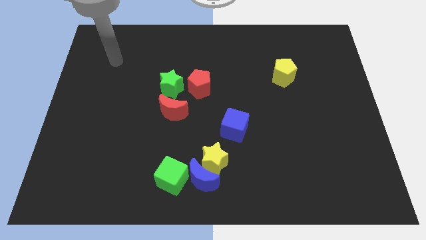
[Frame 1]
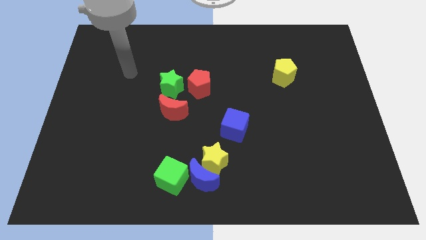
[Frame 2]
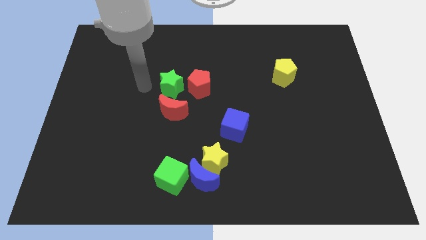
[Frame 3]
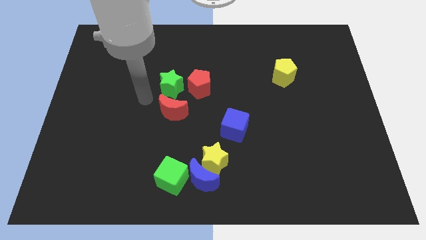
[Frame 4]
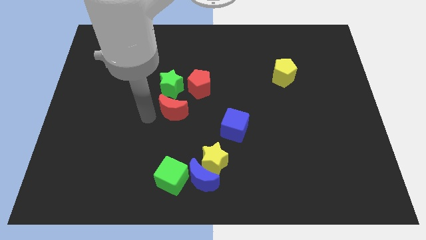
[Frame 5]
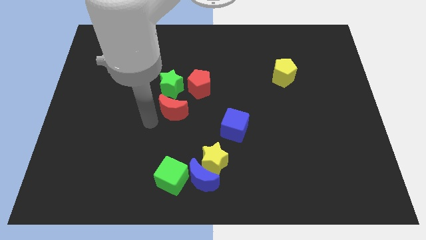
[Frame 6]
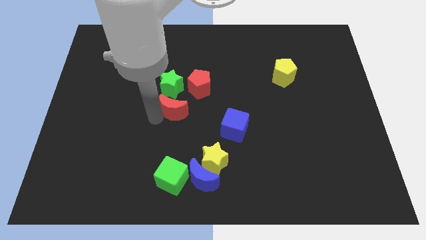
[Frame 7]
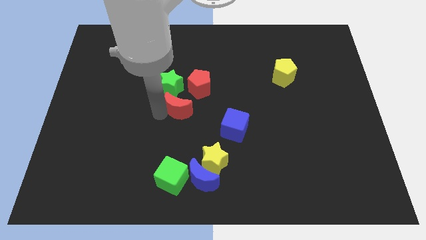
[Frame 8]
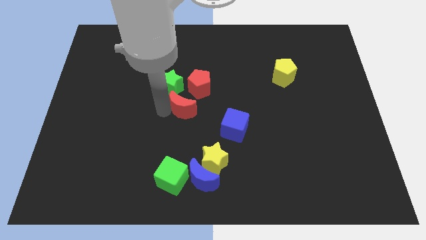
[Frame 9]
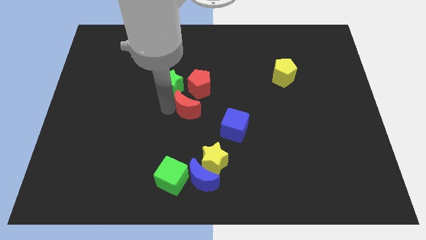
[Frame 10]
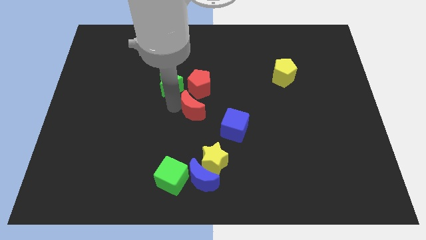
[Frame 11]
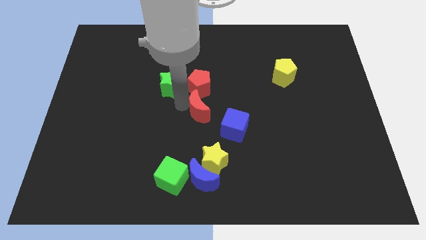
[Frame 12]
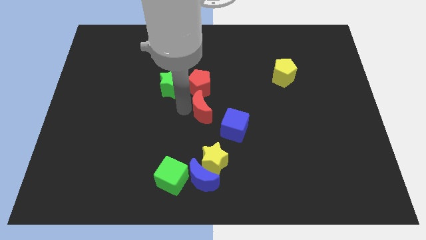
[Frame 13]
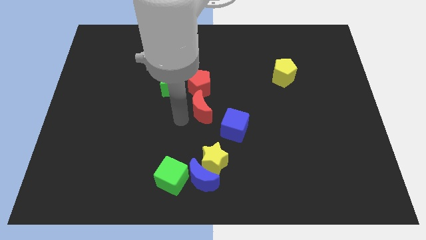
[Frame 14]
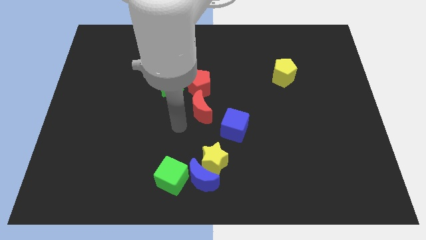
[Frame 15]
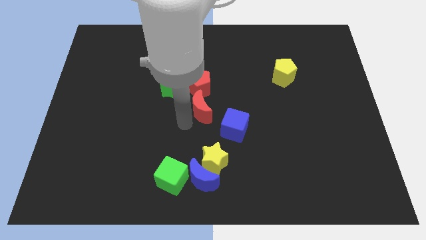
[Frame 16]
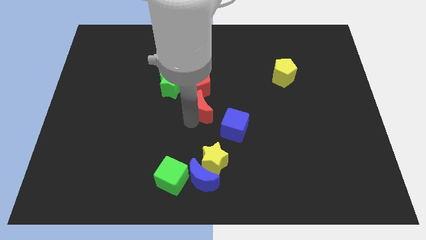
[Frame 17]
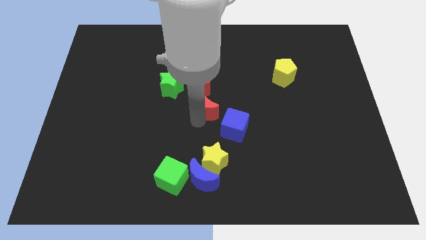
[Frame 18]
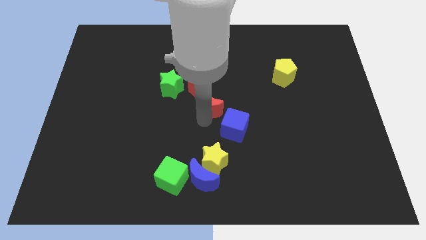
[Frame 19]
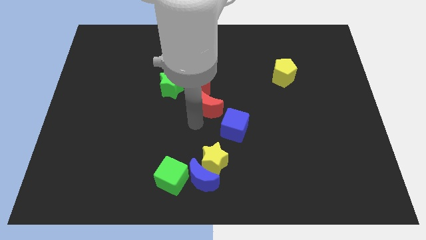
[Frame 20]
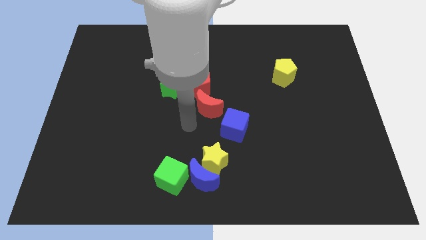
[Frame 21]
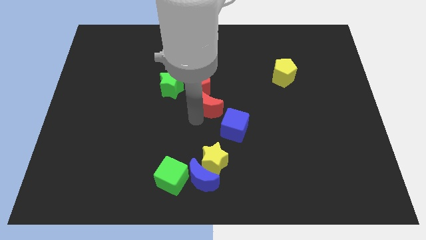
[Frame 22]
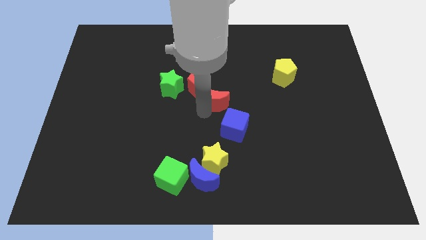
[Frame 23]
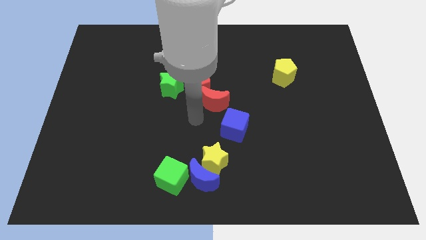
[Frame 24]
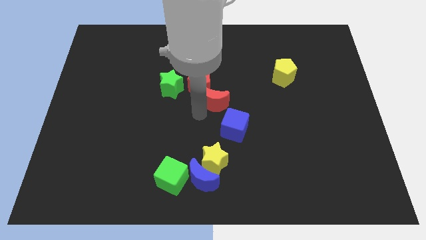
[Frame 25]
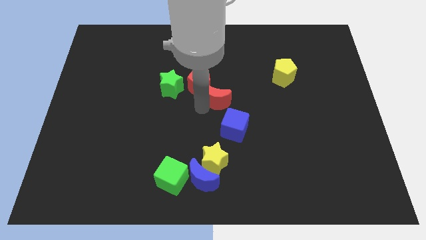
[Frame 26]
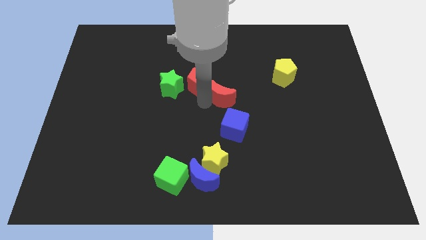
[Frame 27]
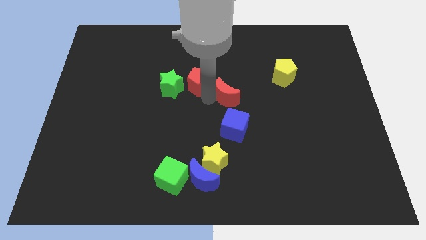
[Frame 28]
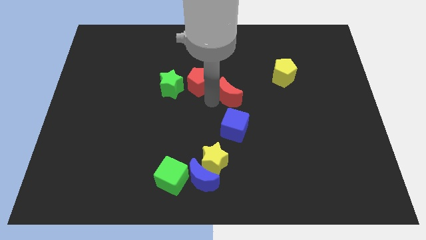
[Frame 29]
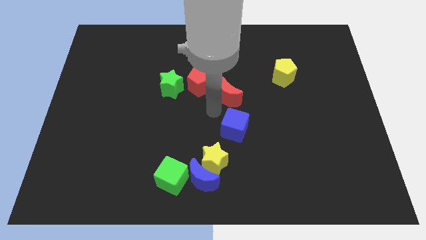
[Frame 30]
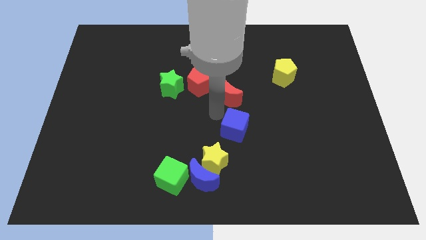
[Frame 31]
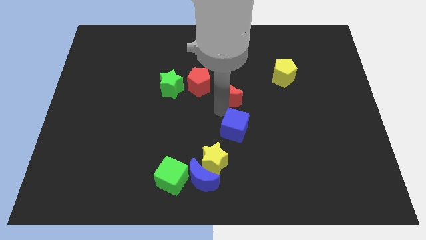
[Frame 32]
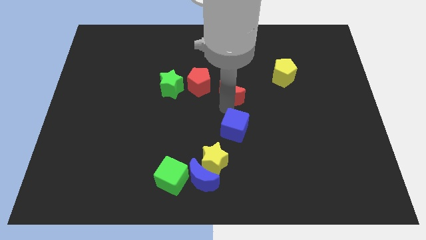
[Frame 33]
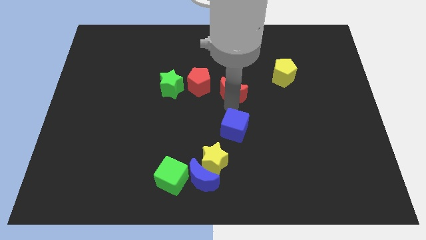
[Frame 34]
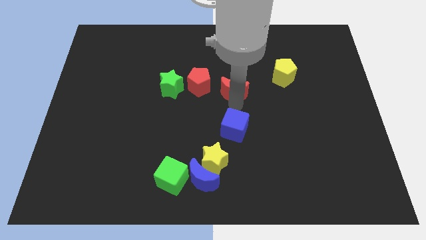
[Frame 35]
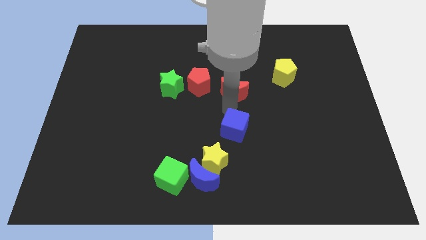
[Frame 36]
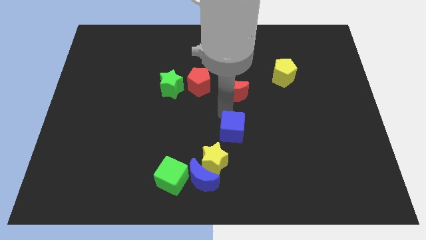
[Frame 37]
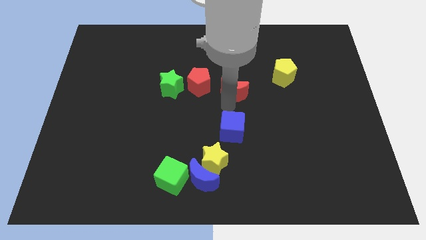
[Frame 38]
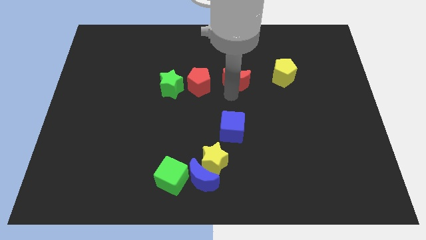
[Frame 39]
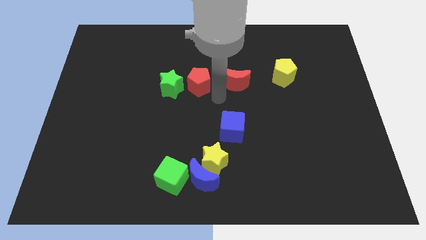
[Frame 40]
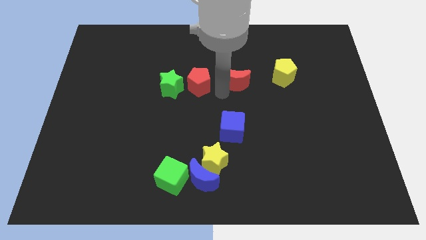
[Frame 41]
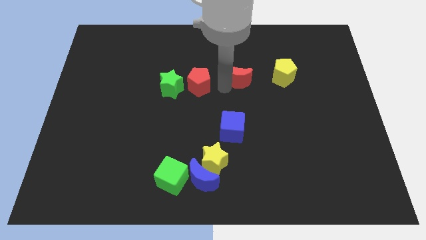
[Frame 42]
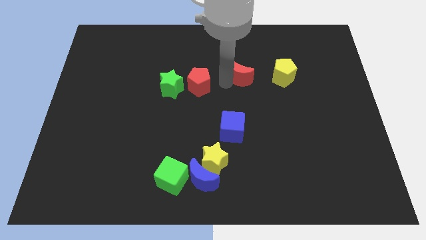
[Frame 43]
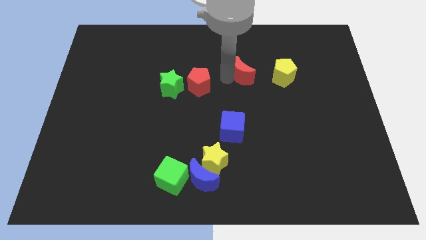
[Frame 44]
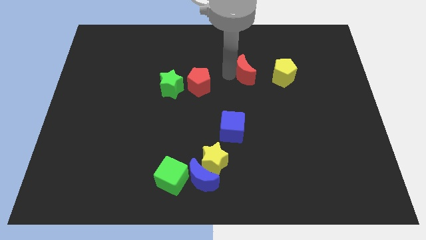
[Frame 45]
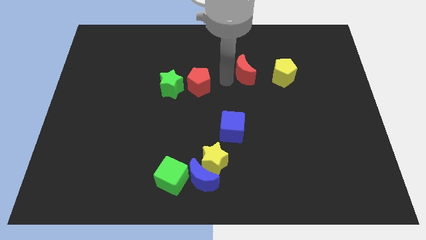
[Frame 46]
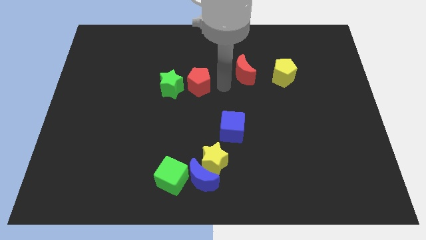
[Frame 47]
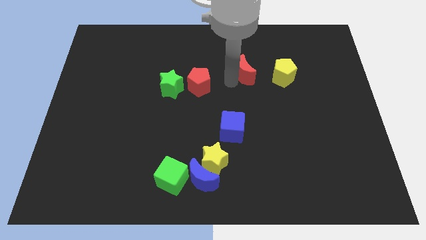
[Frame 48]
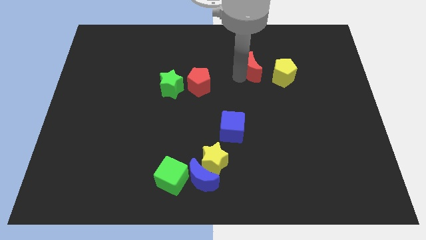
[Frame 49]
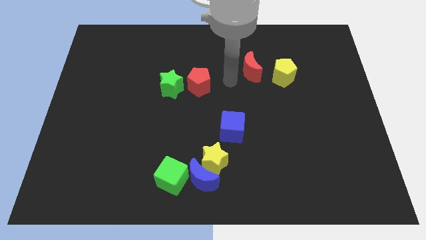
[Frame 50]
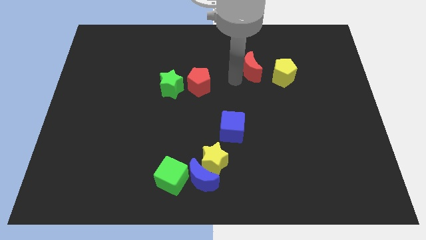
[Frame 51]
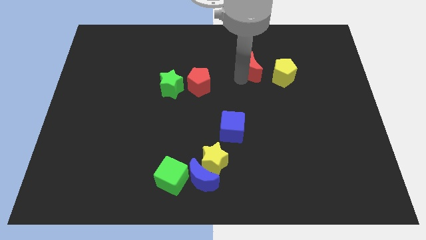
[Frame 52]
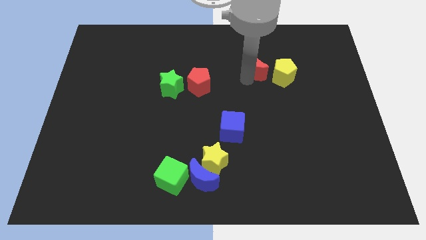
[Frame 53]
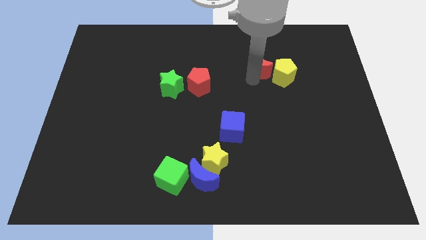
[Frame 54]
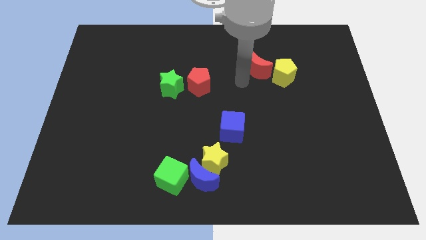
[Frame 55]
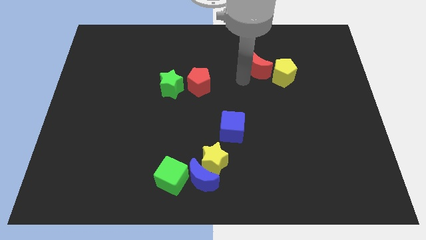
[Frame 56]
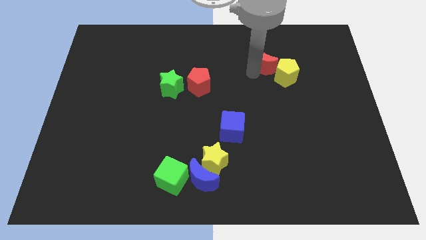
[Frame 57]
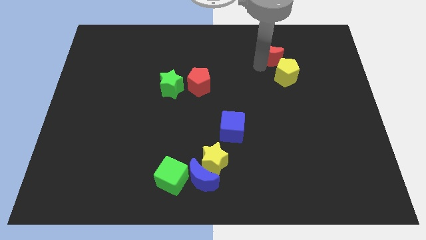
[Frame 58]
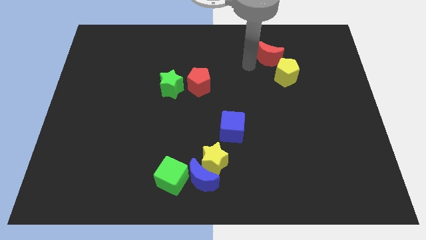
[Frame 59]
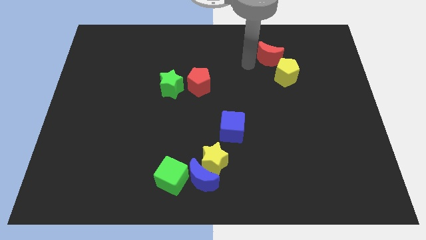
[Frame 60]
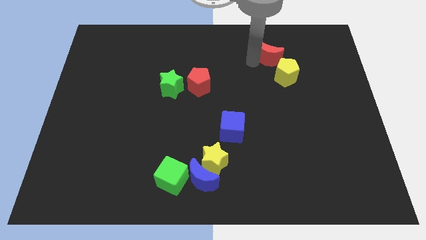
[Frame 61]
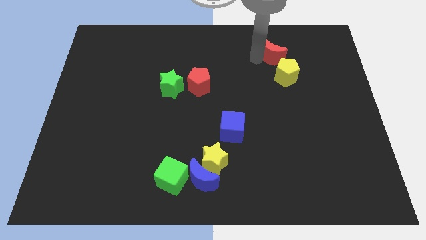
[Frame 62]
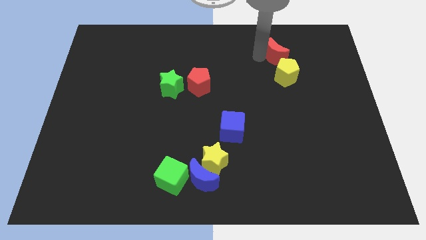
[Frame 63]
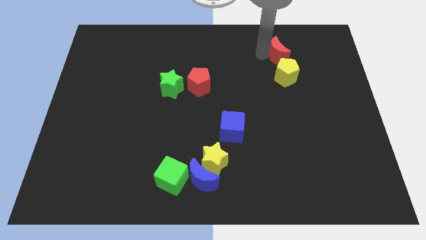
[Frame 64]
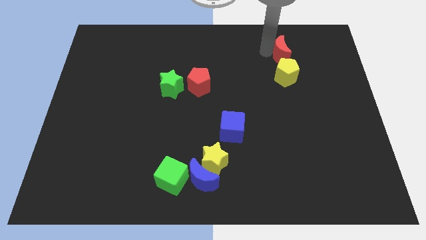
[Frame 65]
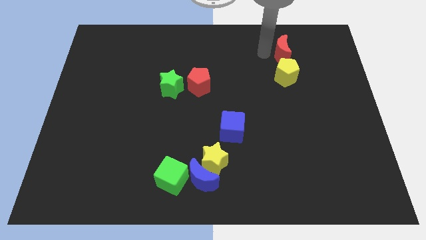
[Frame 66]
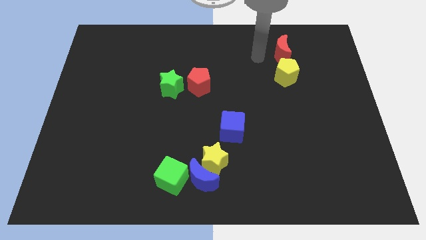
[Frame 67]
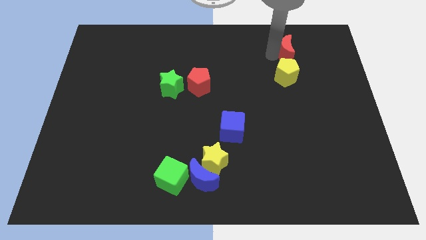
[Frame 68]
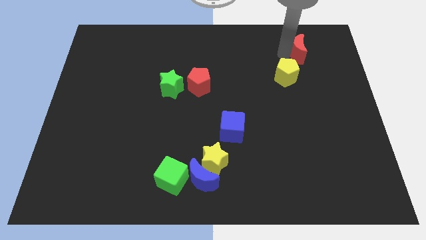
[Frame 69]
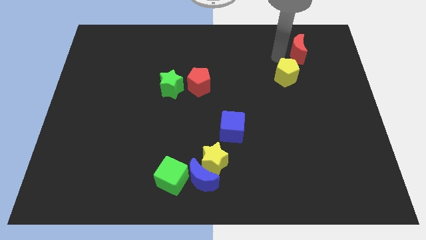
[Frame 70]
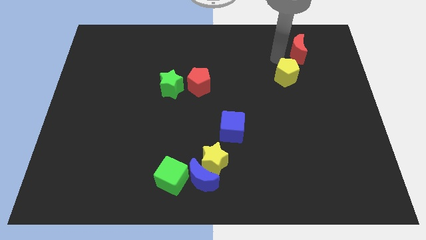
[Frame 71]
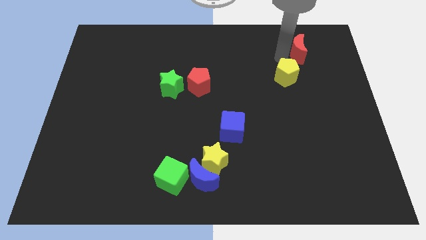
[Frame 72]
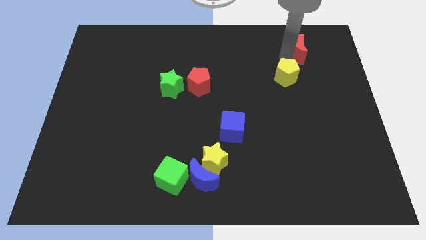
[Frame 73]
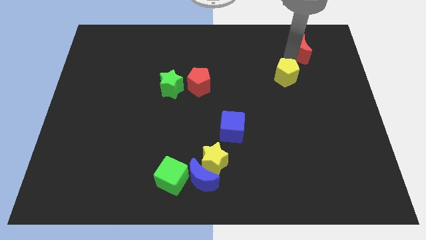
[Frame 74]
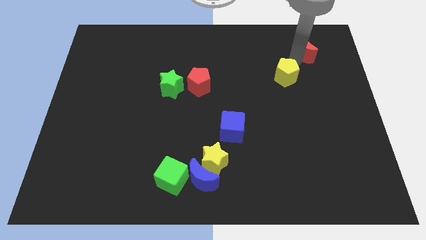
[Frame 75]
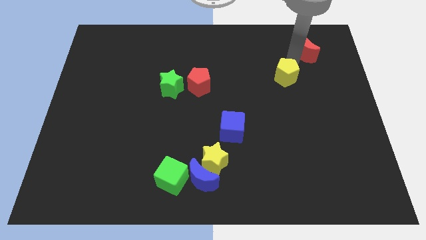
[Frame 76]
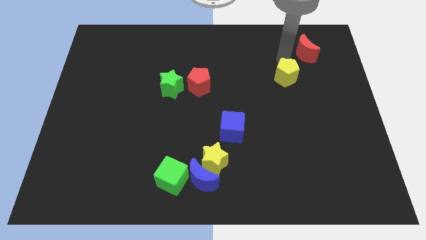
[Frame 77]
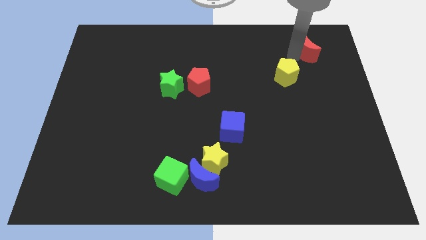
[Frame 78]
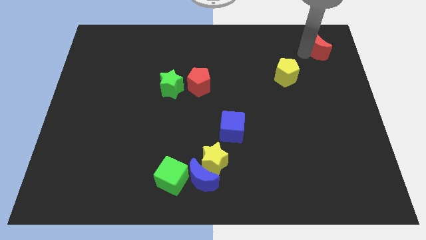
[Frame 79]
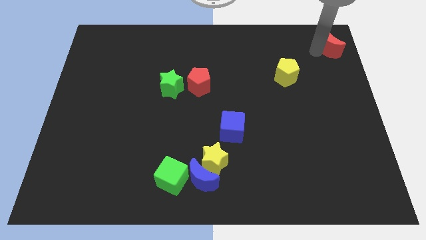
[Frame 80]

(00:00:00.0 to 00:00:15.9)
put the red moon to the top right of the board
